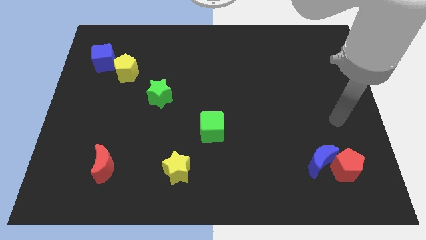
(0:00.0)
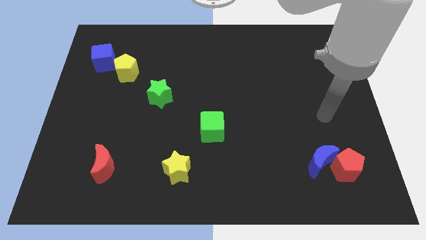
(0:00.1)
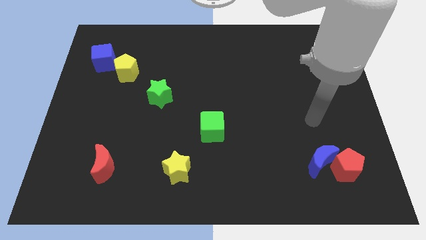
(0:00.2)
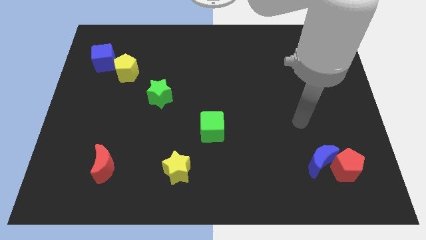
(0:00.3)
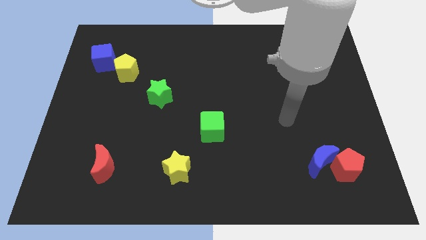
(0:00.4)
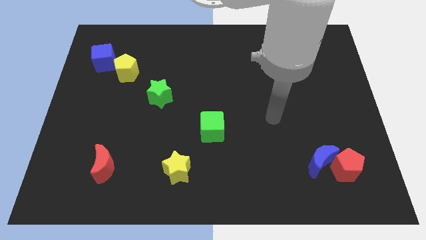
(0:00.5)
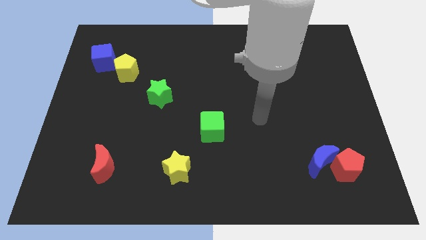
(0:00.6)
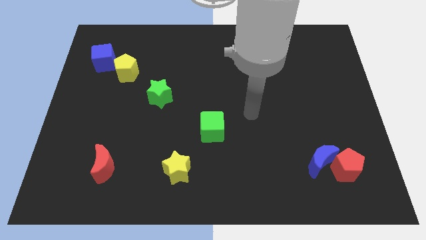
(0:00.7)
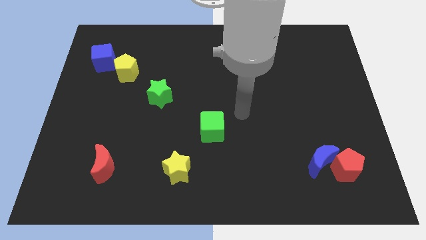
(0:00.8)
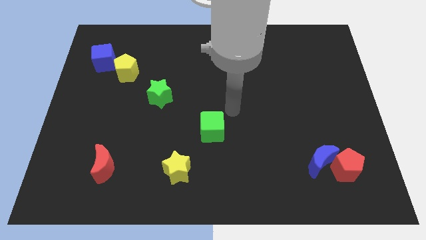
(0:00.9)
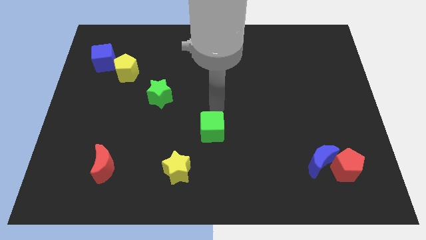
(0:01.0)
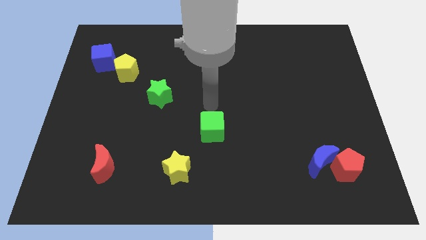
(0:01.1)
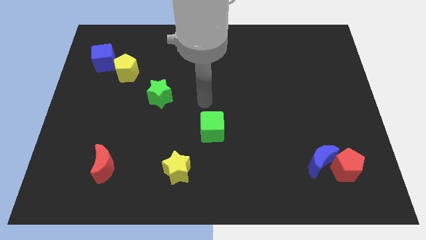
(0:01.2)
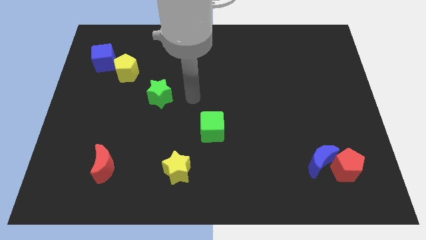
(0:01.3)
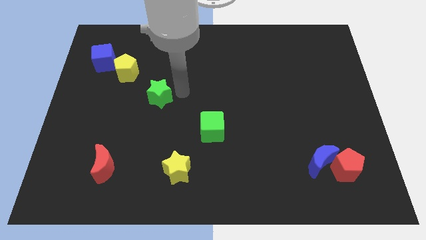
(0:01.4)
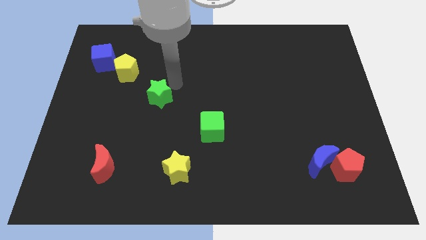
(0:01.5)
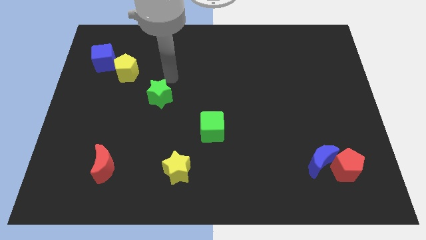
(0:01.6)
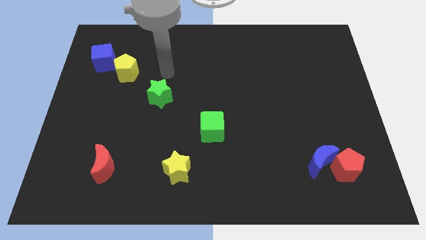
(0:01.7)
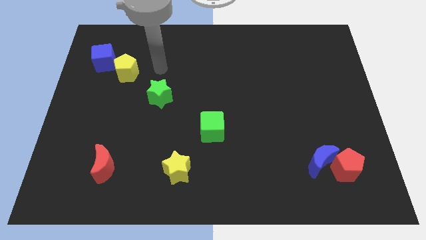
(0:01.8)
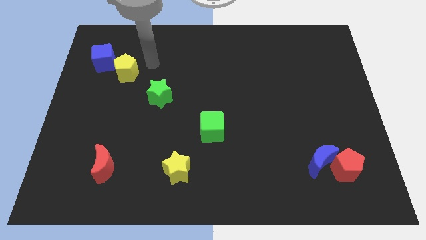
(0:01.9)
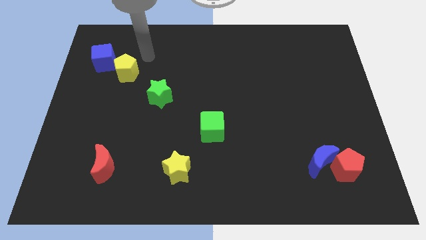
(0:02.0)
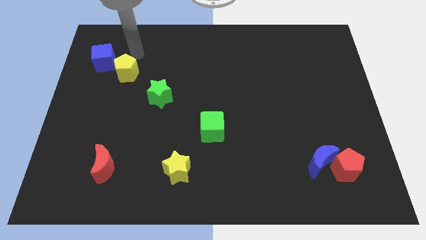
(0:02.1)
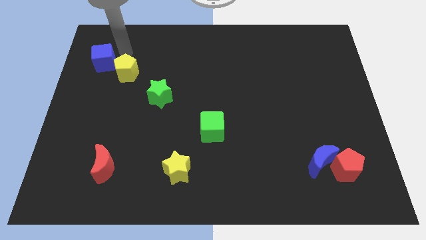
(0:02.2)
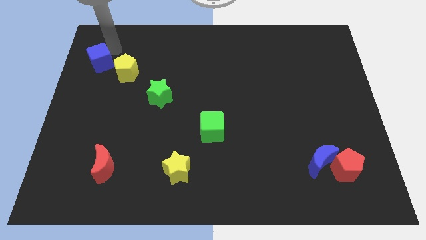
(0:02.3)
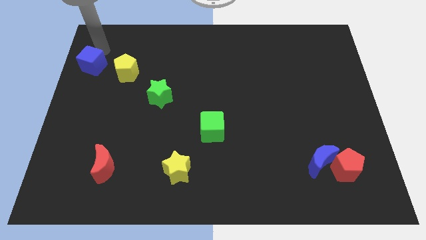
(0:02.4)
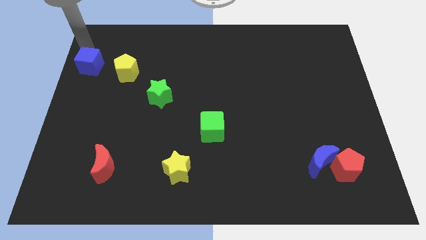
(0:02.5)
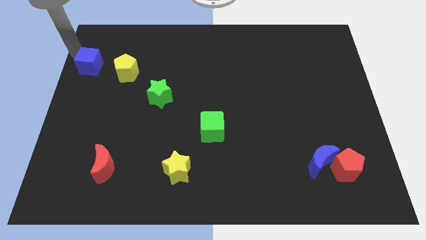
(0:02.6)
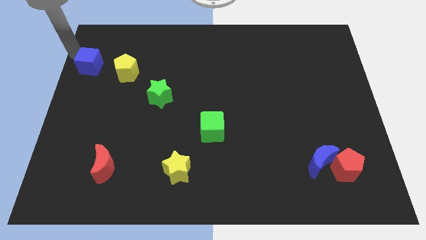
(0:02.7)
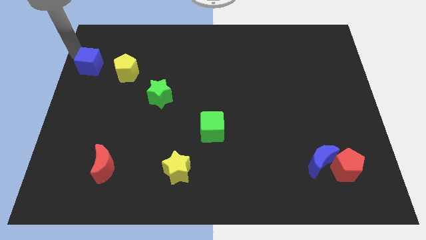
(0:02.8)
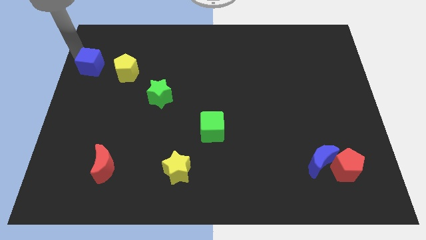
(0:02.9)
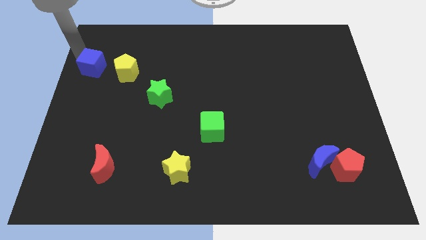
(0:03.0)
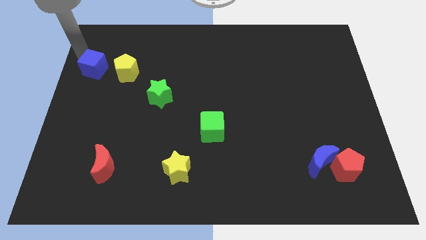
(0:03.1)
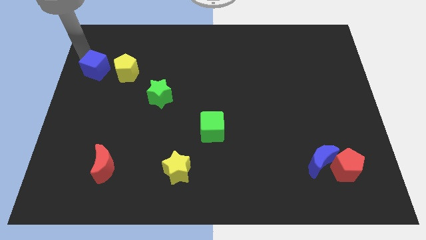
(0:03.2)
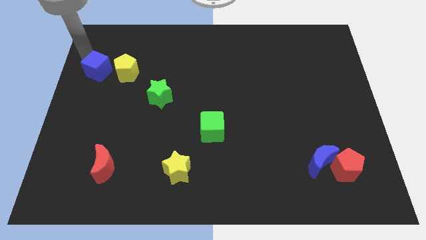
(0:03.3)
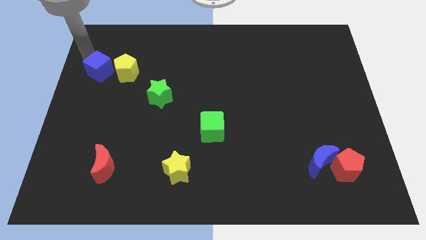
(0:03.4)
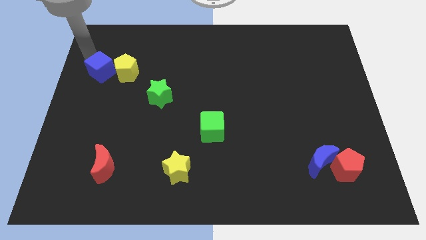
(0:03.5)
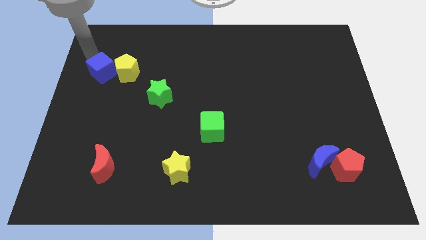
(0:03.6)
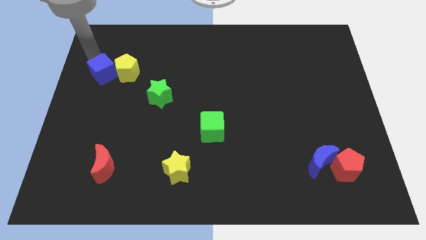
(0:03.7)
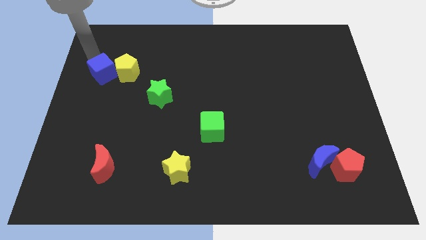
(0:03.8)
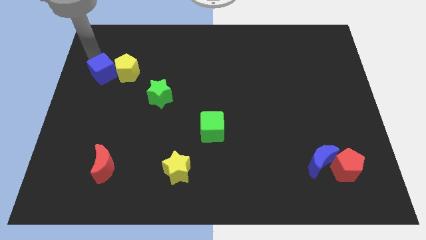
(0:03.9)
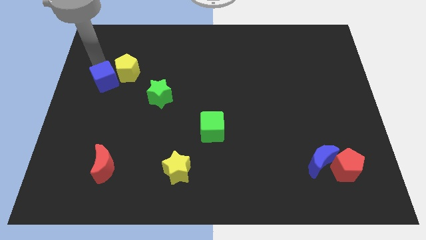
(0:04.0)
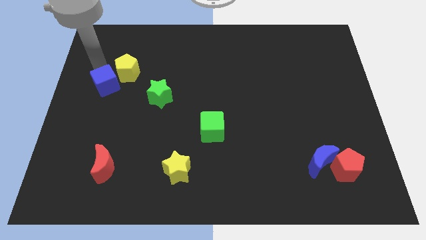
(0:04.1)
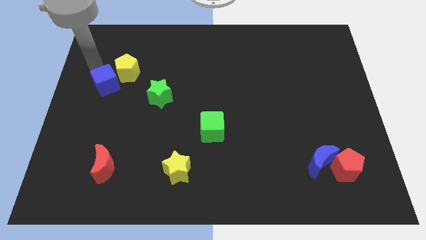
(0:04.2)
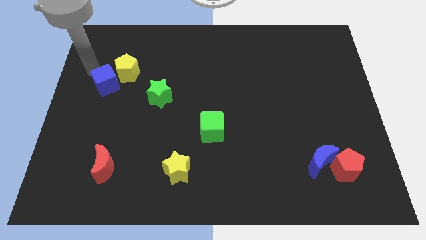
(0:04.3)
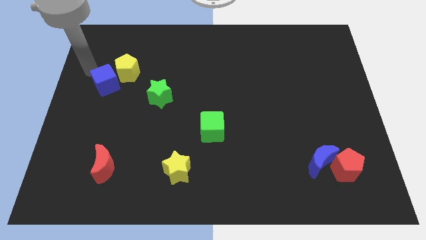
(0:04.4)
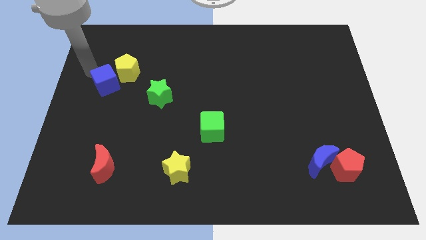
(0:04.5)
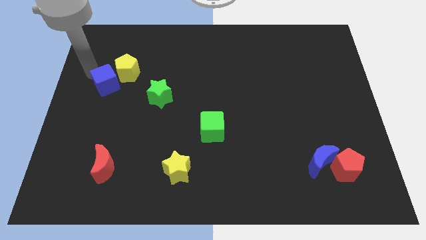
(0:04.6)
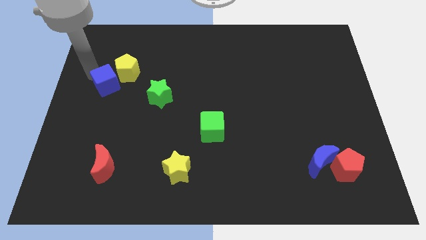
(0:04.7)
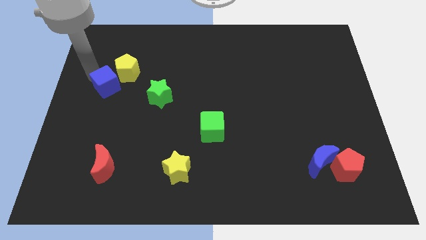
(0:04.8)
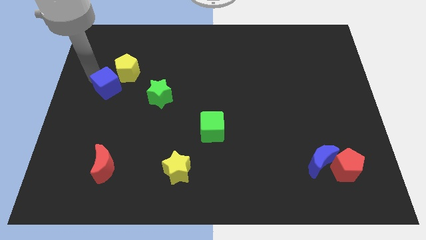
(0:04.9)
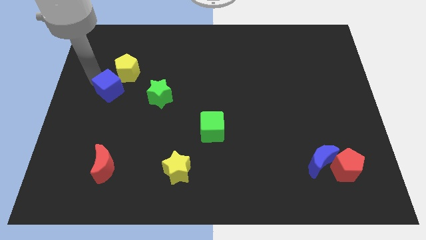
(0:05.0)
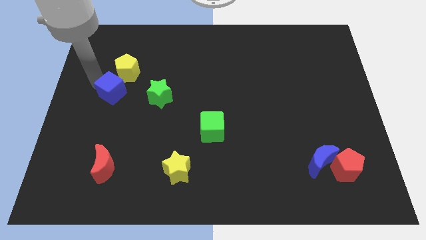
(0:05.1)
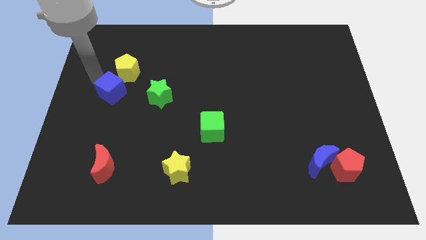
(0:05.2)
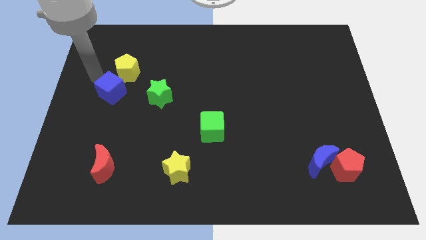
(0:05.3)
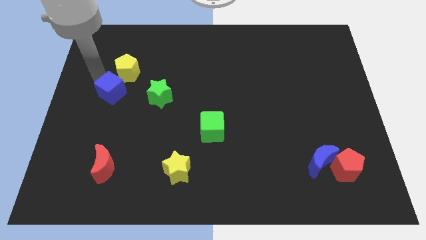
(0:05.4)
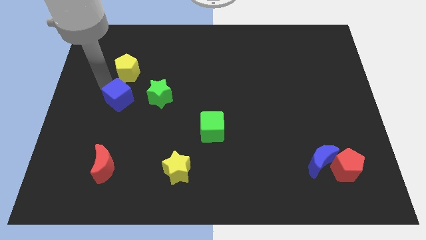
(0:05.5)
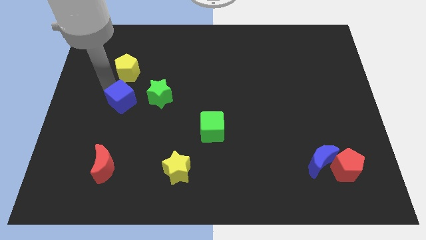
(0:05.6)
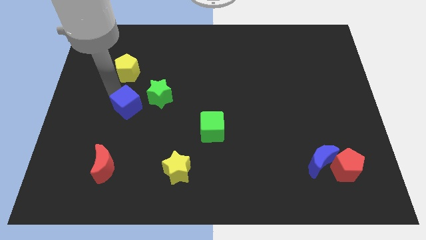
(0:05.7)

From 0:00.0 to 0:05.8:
push the blue cube diagonally down and to the left of the green star

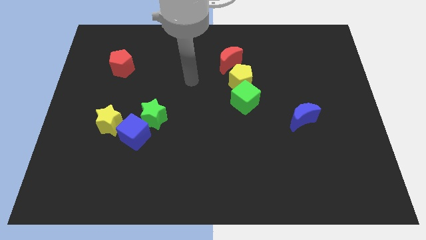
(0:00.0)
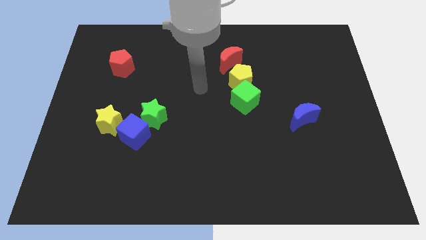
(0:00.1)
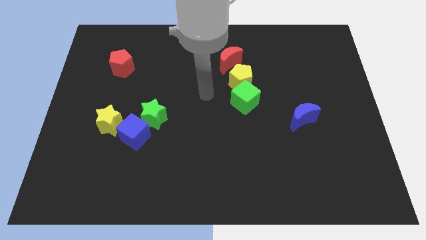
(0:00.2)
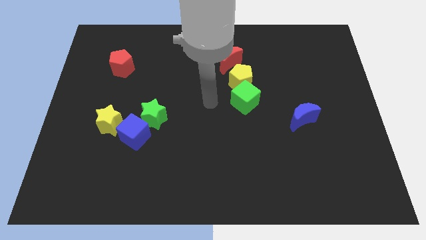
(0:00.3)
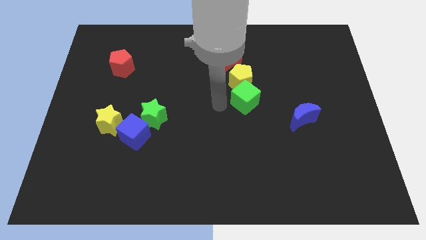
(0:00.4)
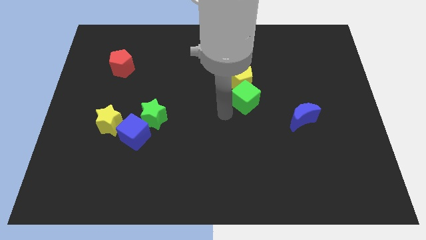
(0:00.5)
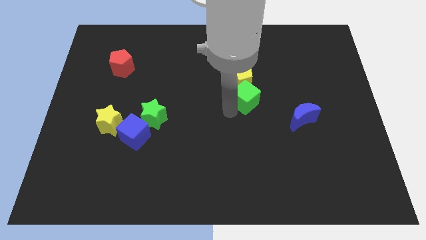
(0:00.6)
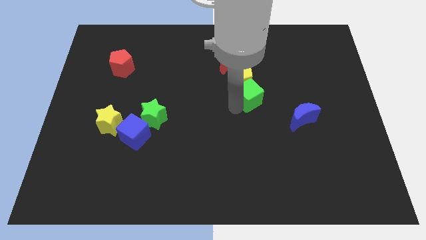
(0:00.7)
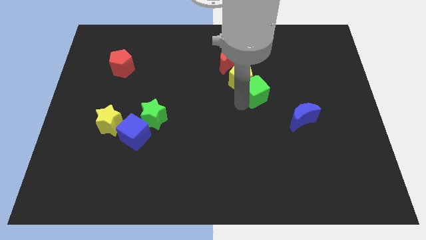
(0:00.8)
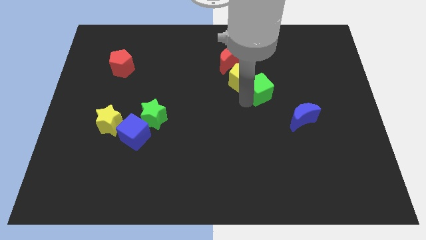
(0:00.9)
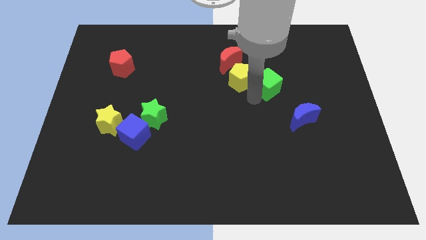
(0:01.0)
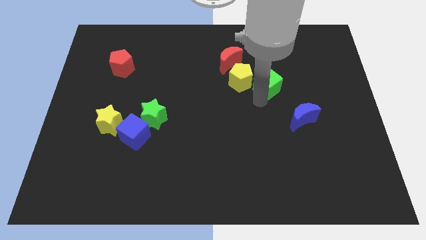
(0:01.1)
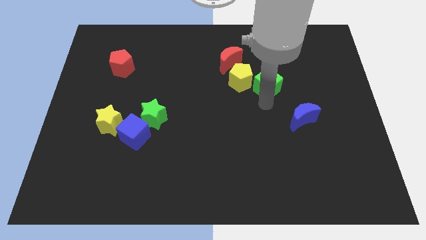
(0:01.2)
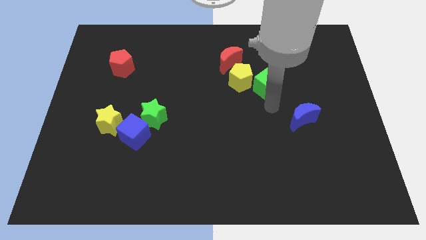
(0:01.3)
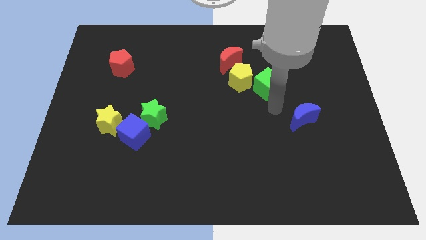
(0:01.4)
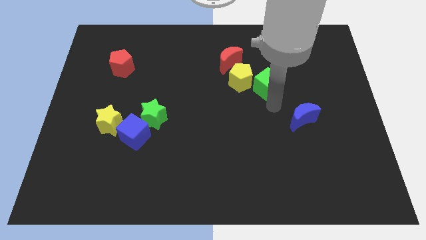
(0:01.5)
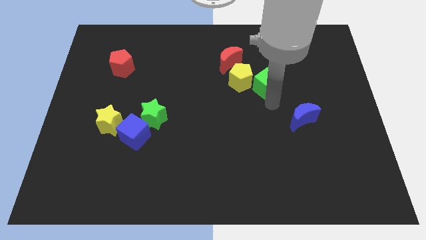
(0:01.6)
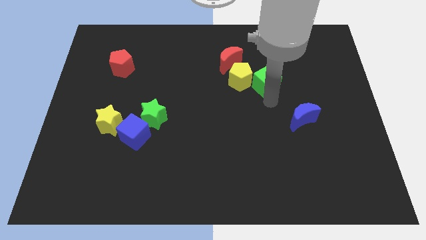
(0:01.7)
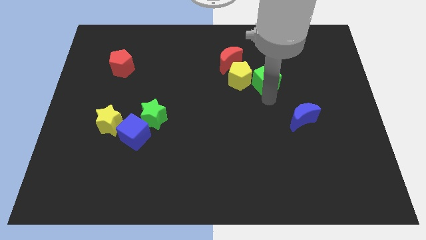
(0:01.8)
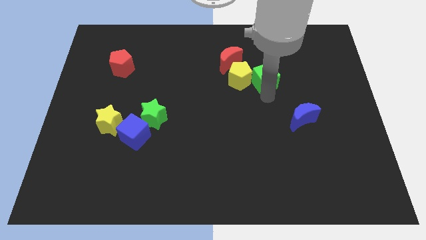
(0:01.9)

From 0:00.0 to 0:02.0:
move the green cube to the top right side of the yellow pentagon
